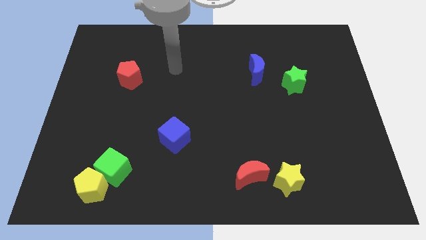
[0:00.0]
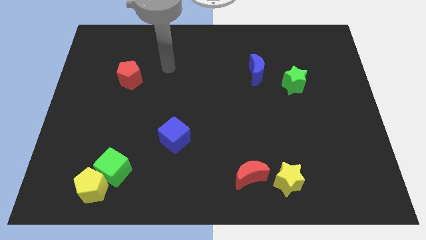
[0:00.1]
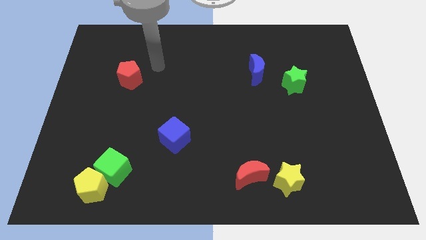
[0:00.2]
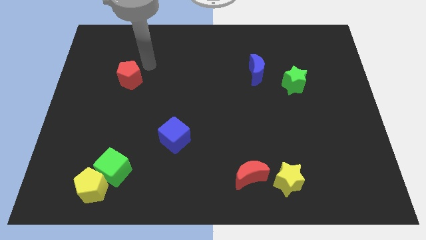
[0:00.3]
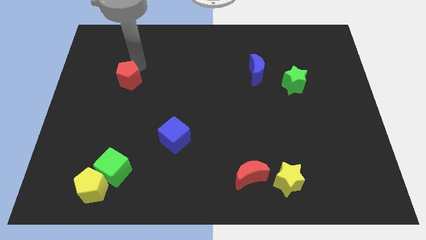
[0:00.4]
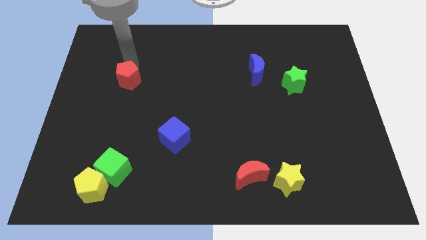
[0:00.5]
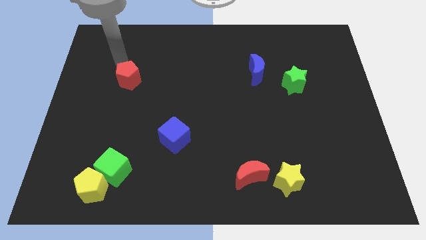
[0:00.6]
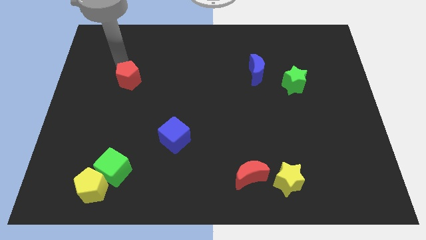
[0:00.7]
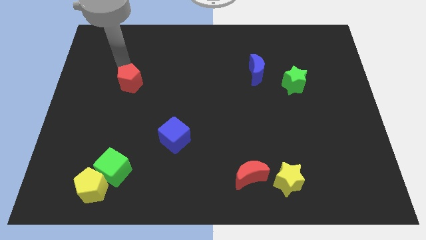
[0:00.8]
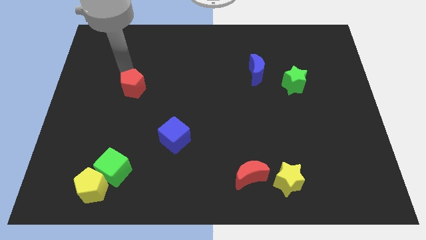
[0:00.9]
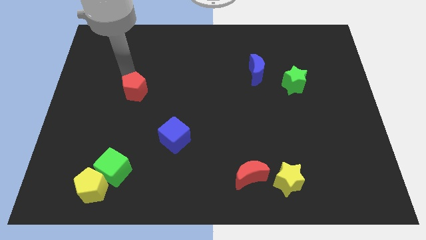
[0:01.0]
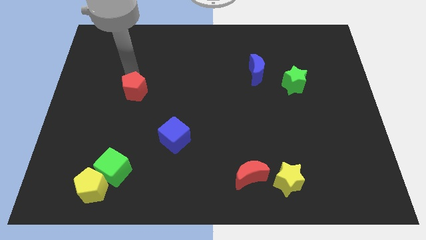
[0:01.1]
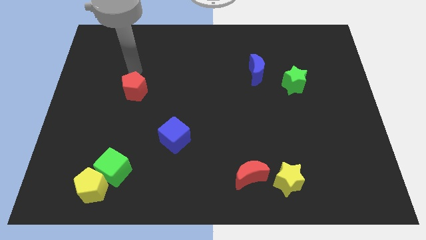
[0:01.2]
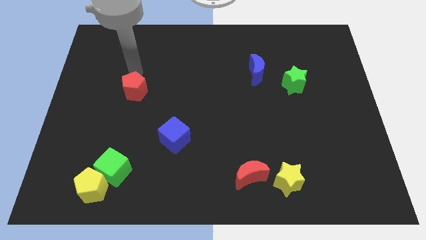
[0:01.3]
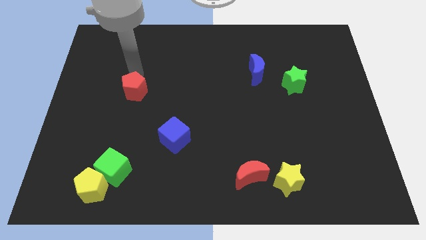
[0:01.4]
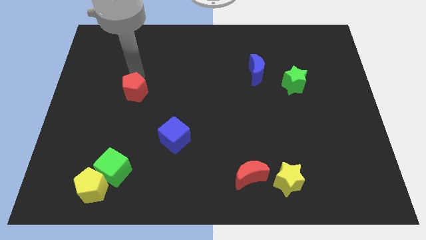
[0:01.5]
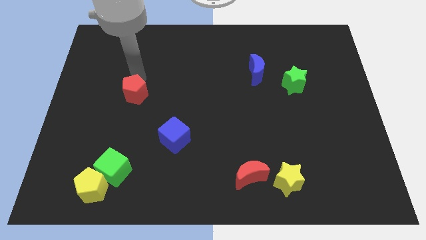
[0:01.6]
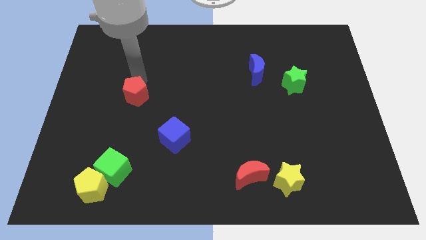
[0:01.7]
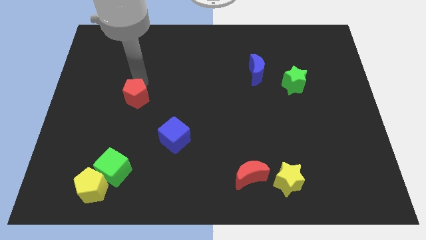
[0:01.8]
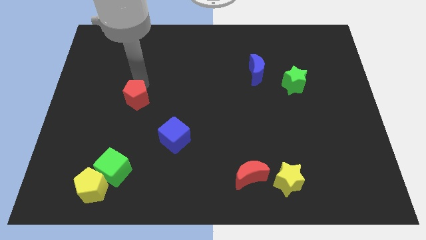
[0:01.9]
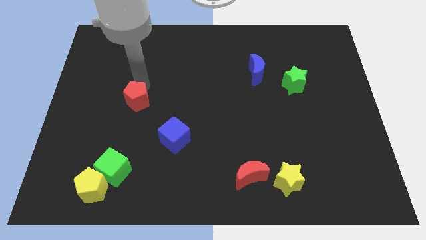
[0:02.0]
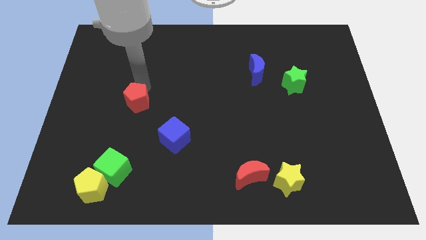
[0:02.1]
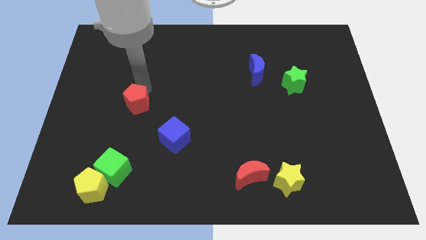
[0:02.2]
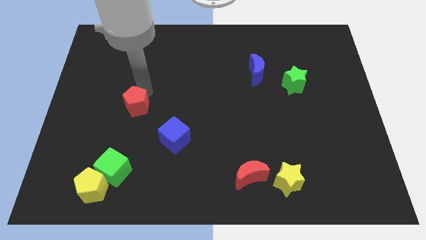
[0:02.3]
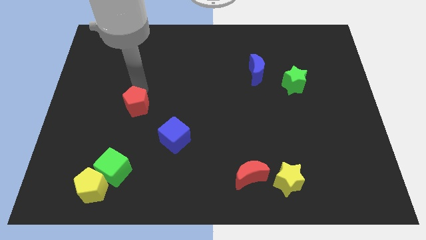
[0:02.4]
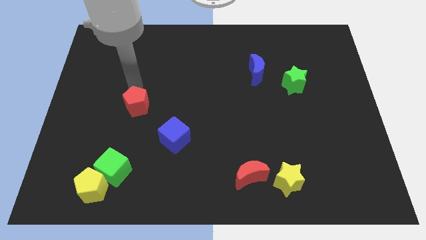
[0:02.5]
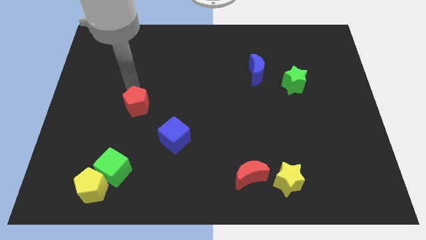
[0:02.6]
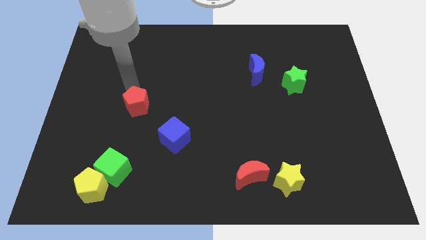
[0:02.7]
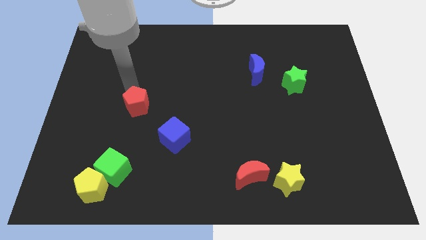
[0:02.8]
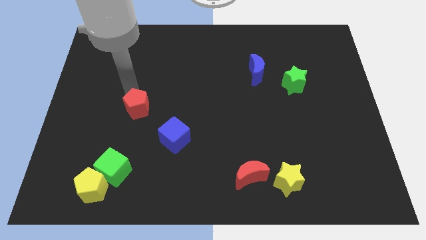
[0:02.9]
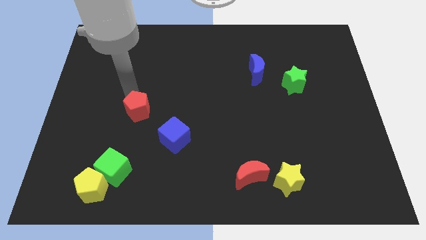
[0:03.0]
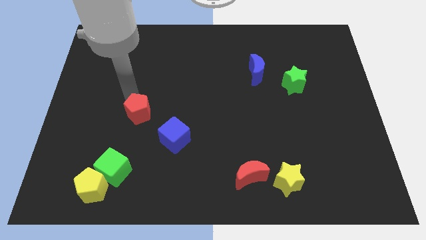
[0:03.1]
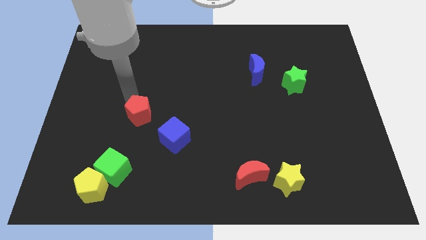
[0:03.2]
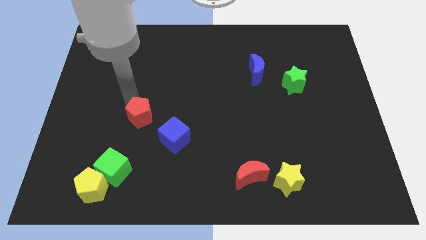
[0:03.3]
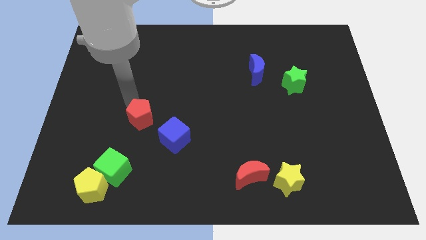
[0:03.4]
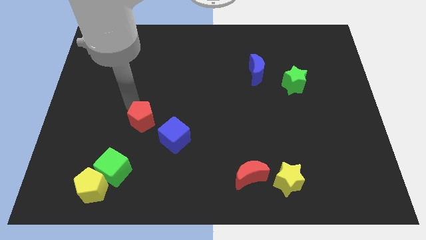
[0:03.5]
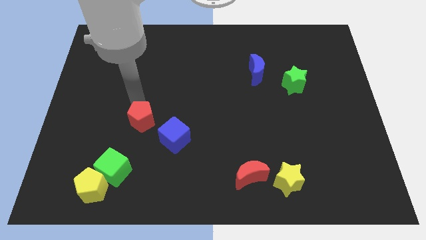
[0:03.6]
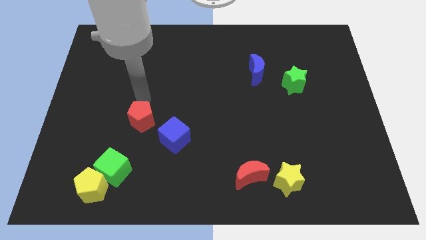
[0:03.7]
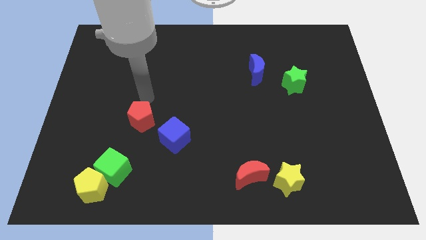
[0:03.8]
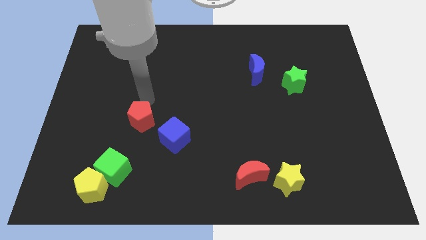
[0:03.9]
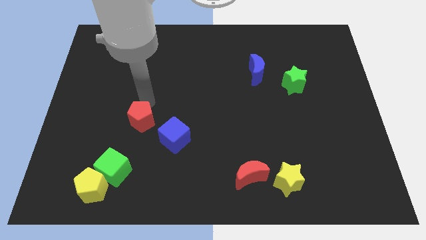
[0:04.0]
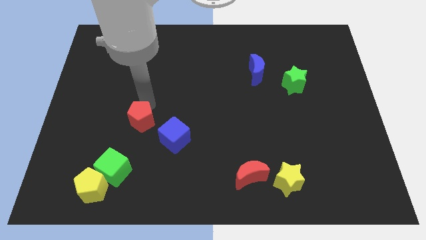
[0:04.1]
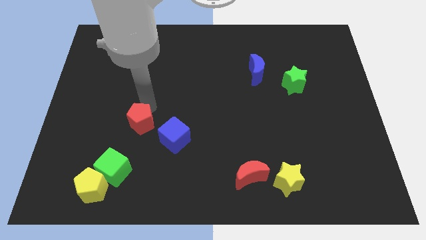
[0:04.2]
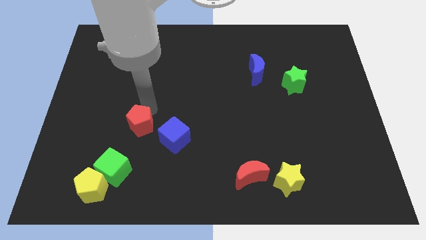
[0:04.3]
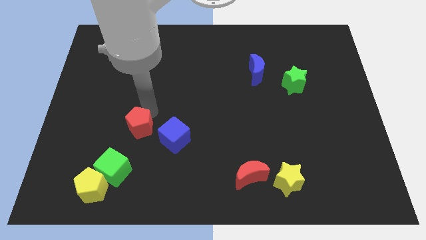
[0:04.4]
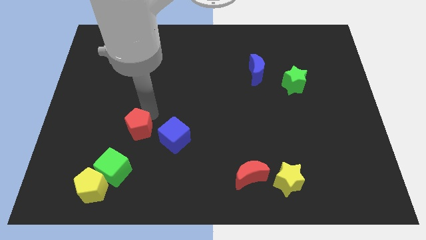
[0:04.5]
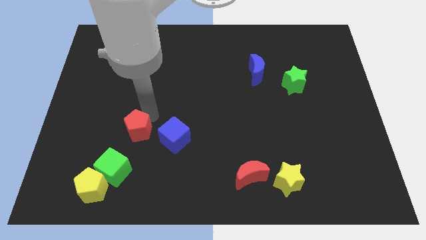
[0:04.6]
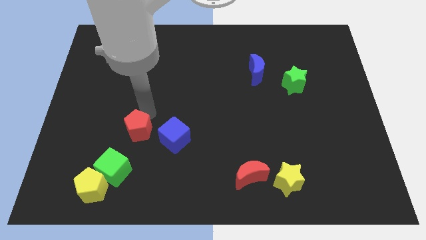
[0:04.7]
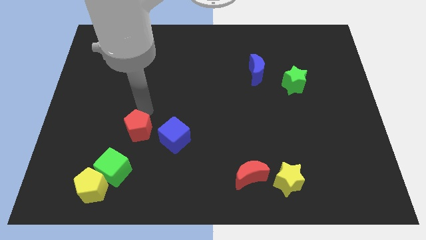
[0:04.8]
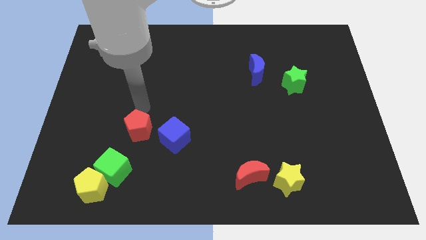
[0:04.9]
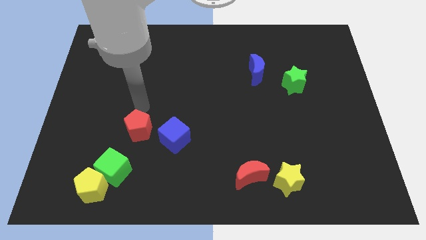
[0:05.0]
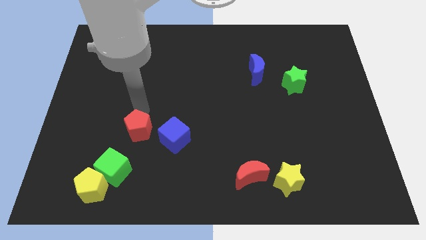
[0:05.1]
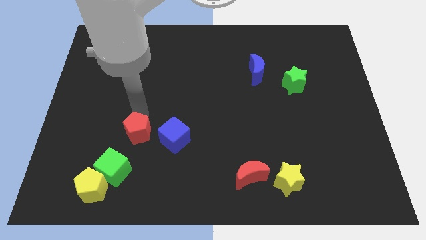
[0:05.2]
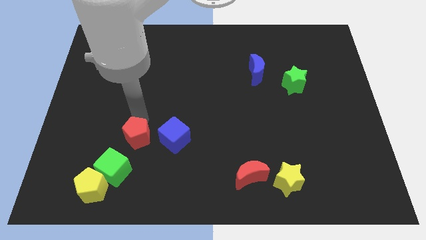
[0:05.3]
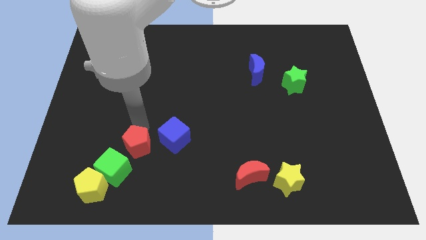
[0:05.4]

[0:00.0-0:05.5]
put the red pentagon to the top right side of the yellow pentagon

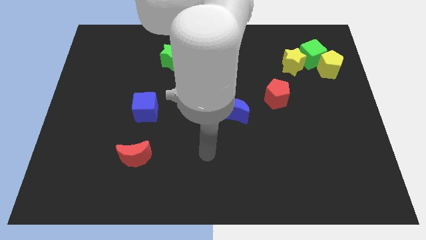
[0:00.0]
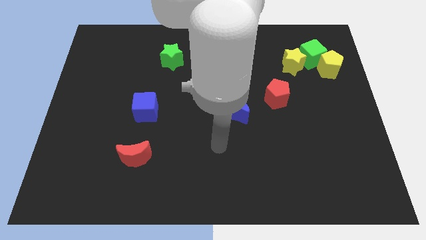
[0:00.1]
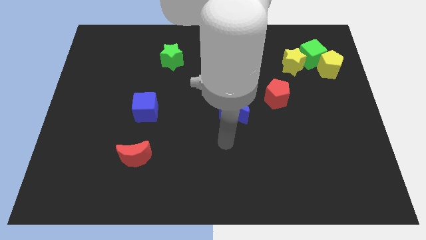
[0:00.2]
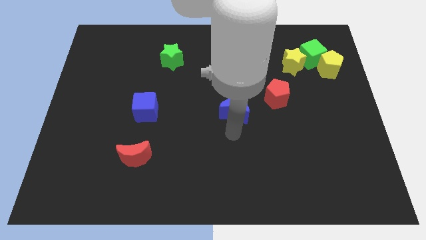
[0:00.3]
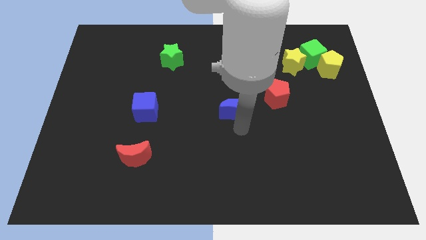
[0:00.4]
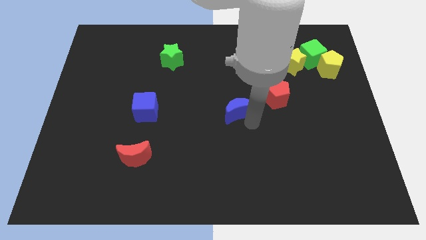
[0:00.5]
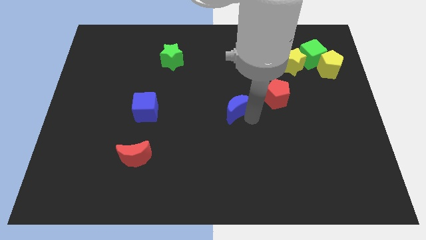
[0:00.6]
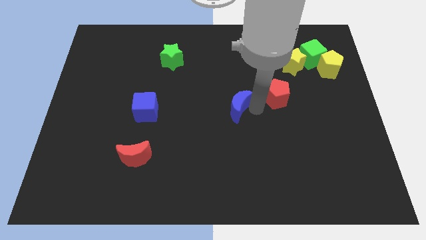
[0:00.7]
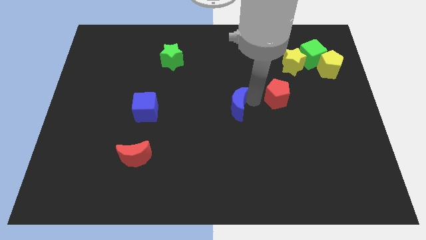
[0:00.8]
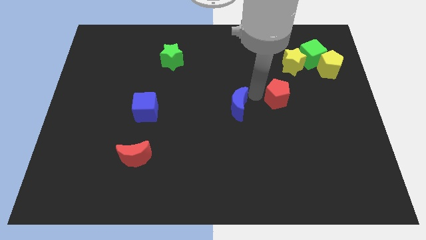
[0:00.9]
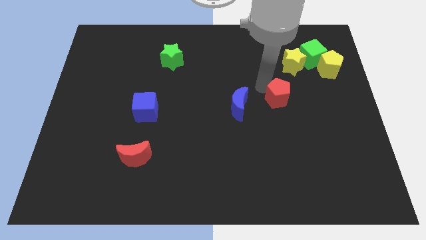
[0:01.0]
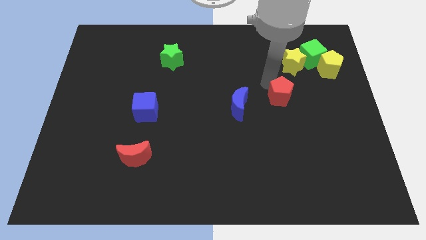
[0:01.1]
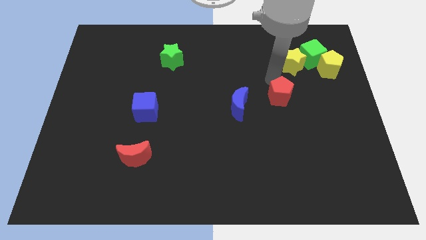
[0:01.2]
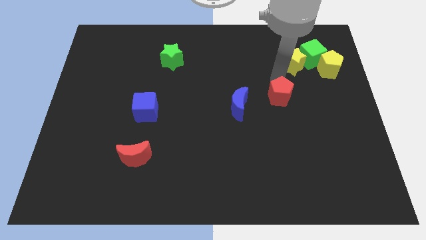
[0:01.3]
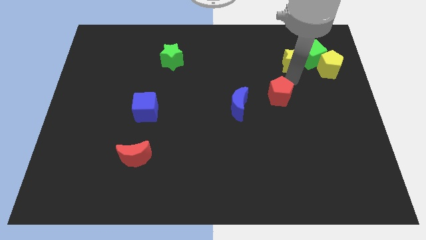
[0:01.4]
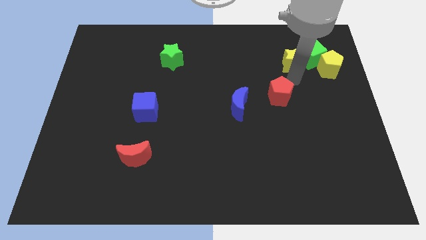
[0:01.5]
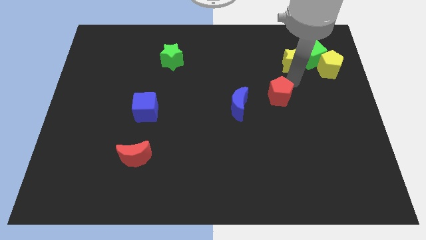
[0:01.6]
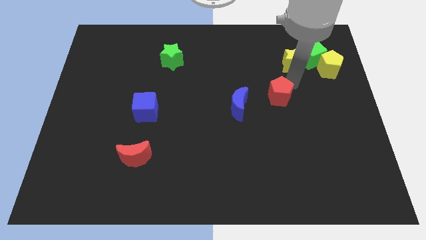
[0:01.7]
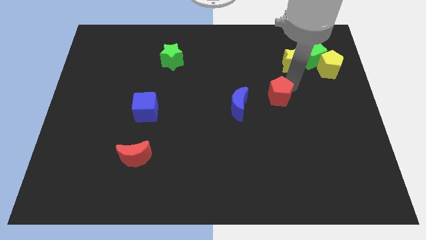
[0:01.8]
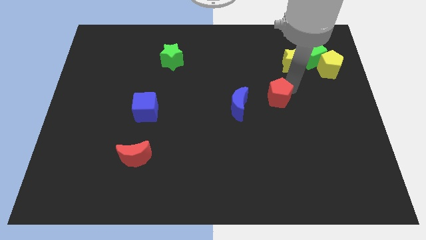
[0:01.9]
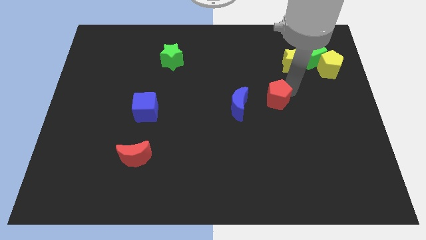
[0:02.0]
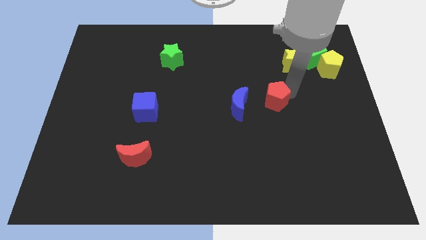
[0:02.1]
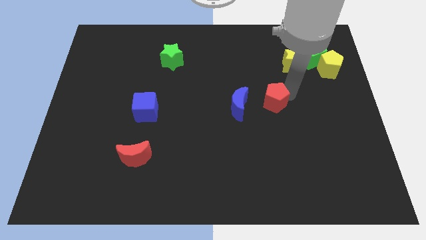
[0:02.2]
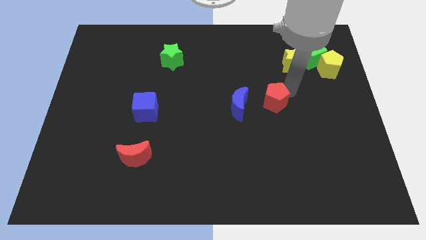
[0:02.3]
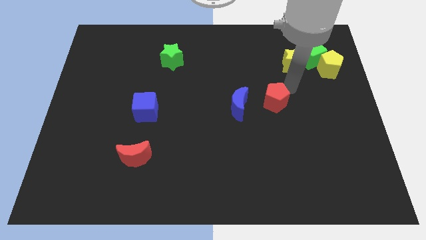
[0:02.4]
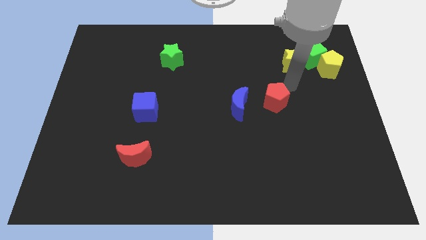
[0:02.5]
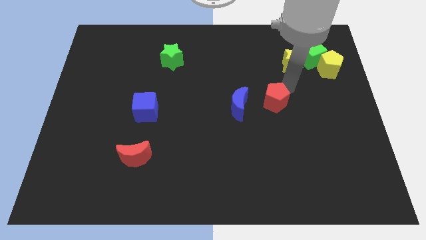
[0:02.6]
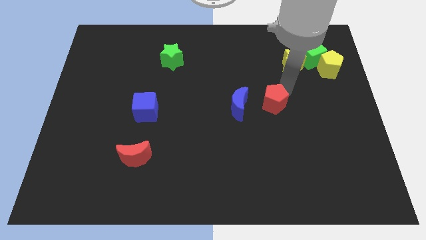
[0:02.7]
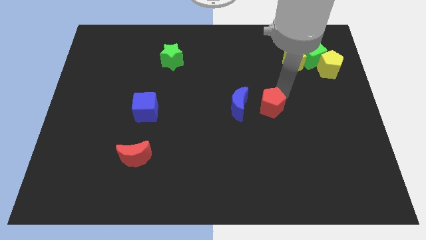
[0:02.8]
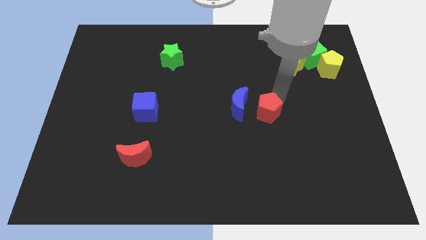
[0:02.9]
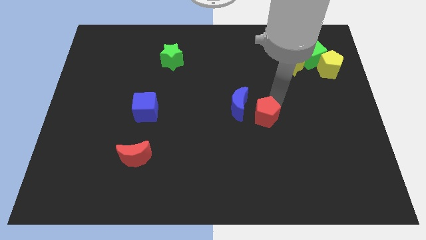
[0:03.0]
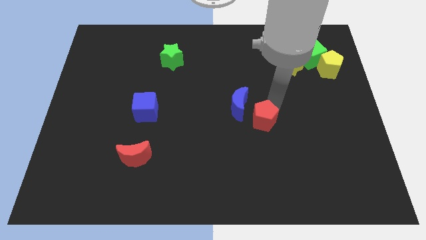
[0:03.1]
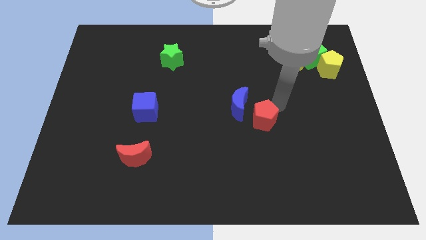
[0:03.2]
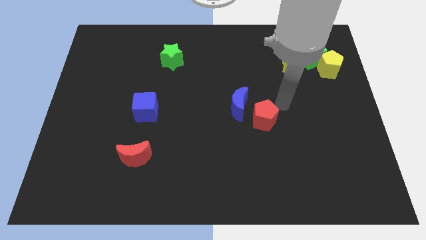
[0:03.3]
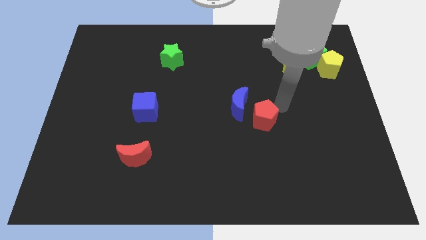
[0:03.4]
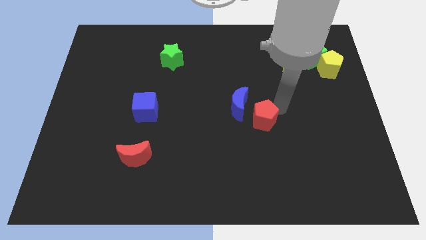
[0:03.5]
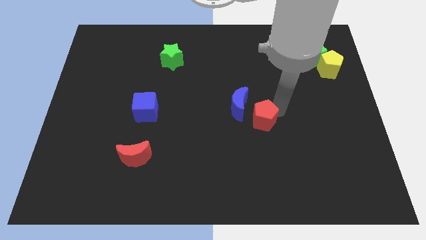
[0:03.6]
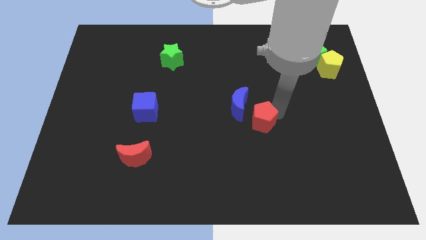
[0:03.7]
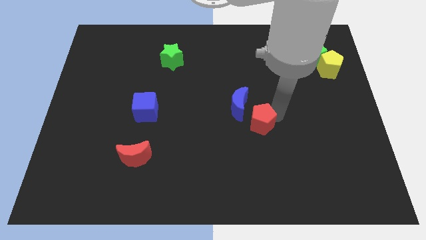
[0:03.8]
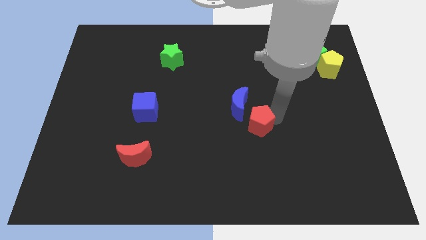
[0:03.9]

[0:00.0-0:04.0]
put the red pentagon to the bottom of the blue moon
